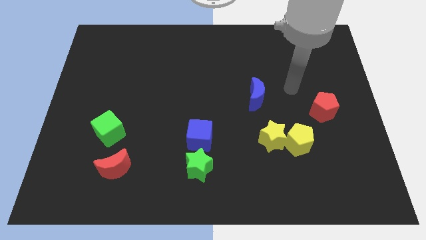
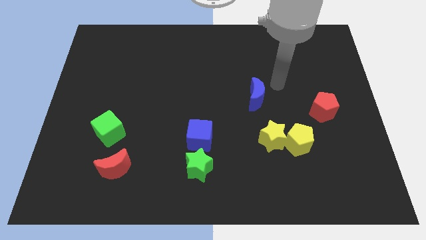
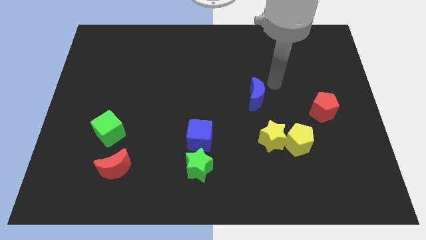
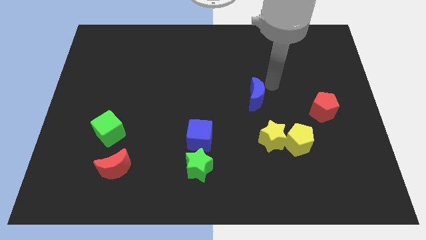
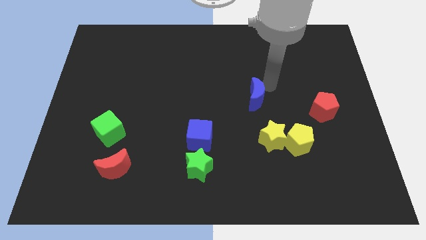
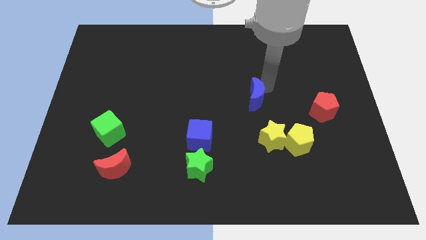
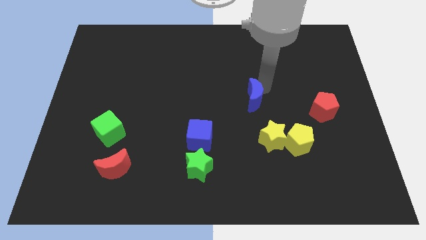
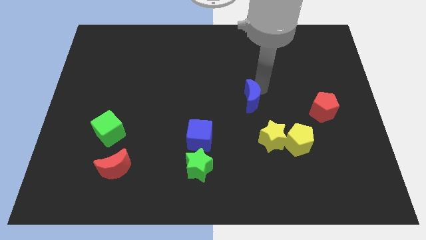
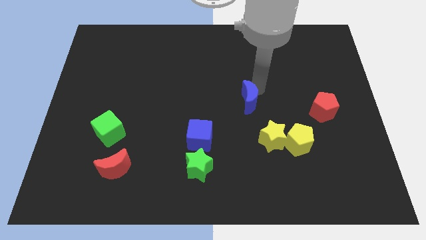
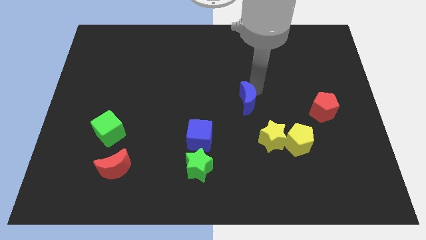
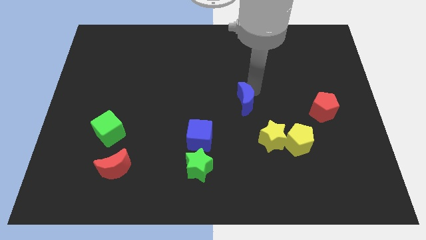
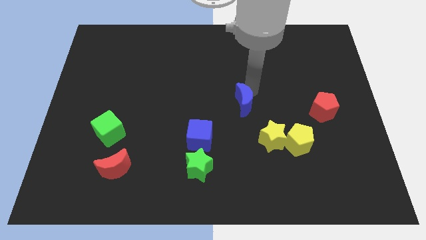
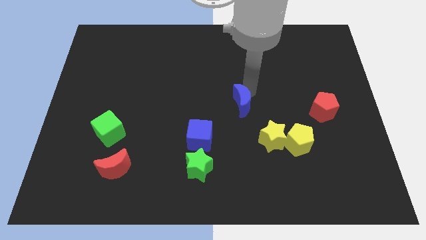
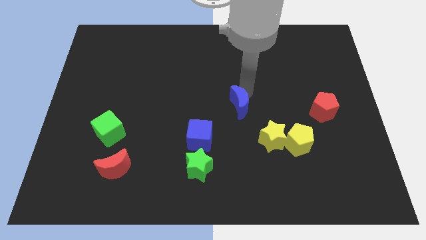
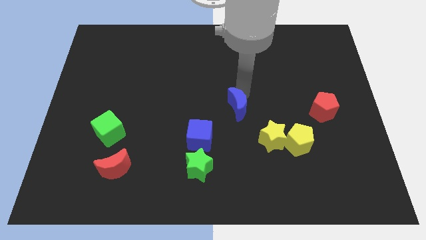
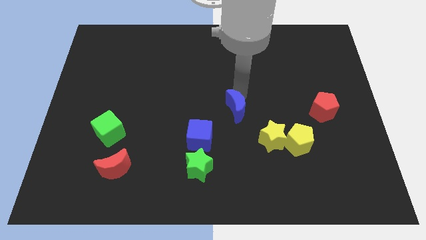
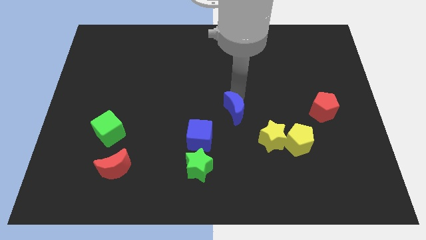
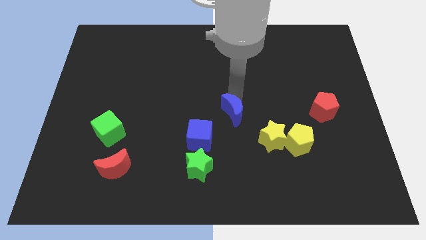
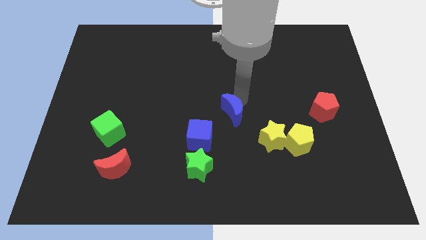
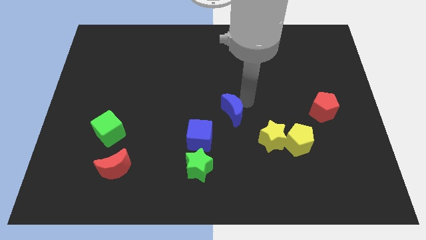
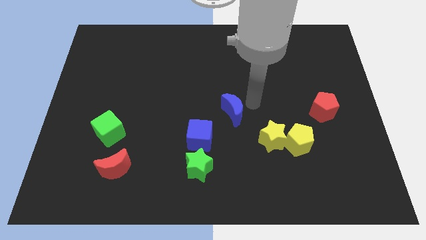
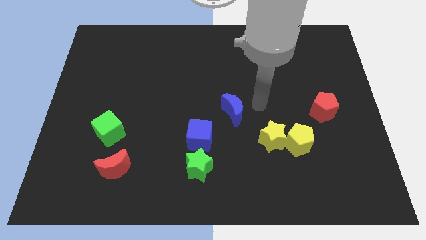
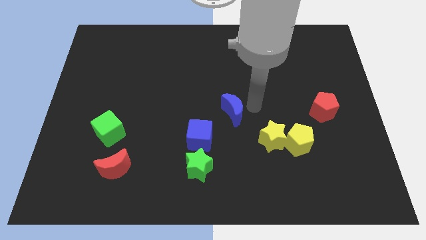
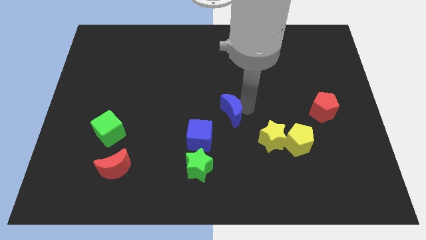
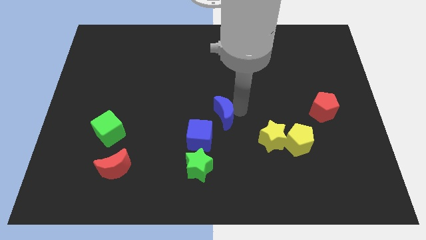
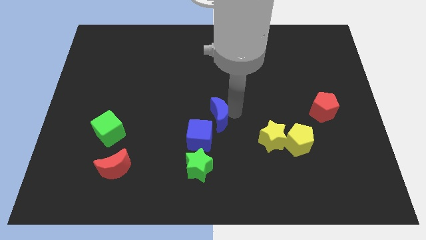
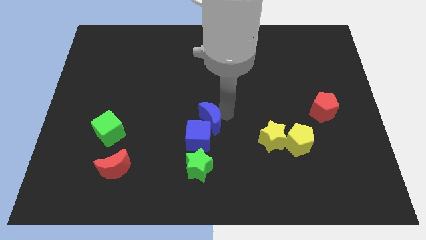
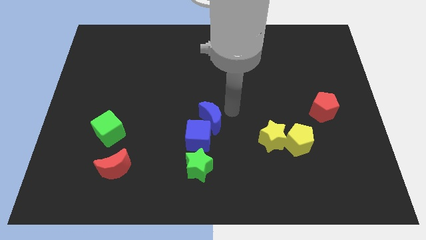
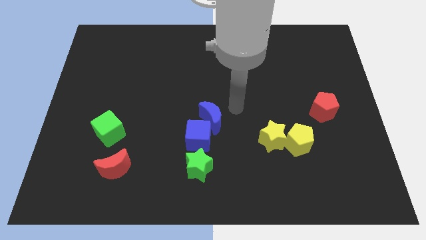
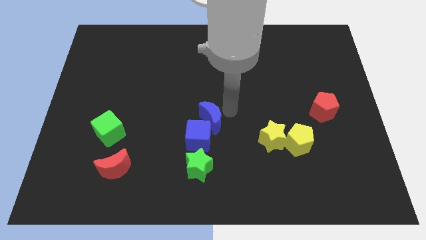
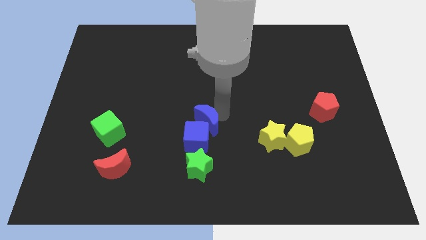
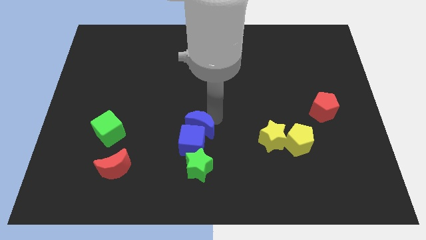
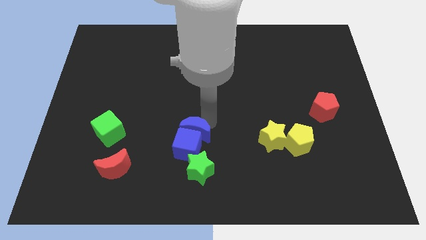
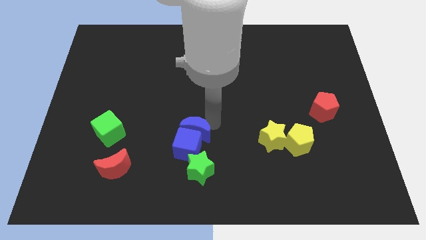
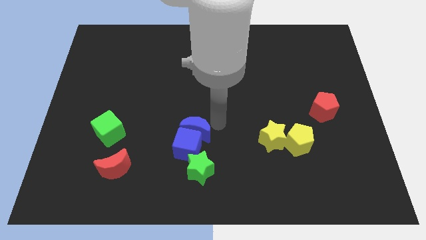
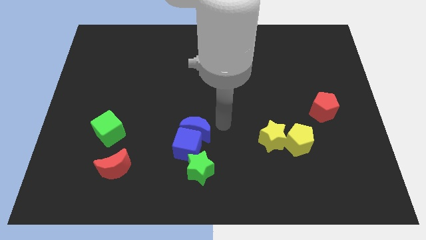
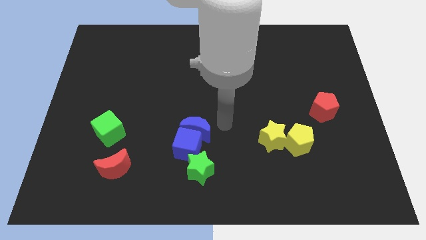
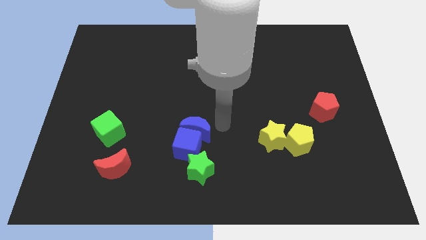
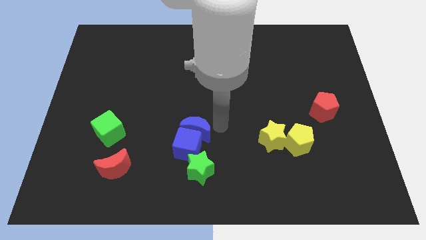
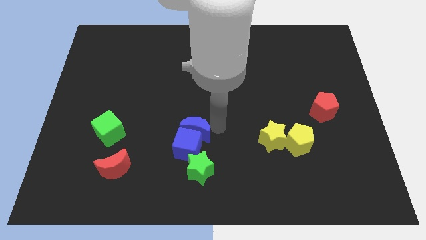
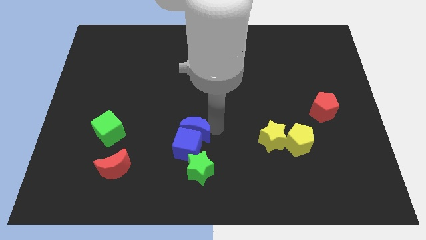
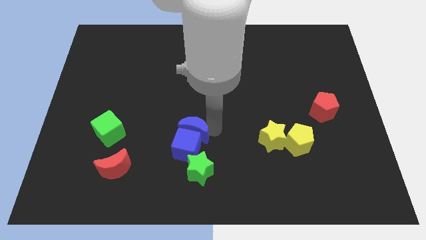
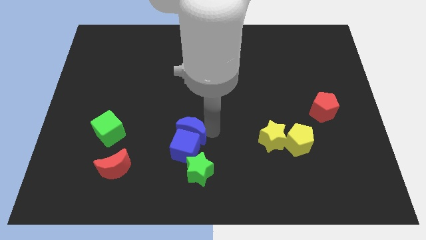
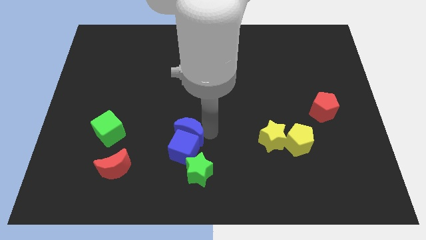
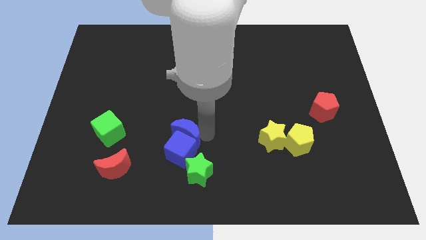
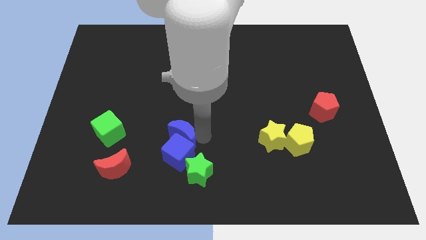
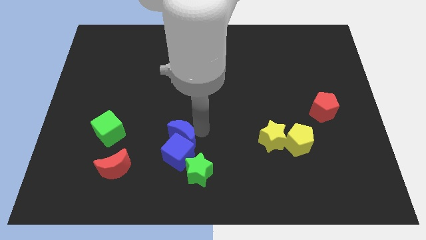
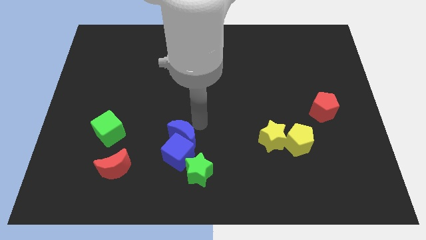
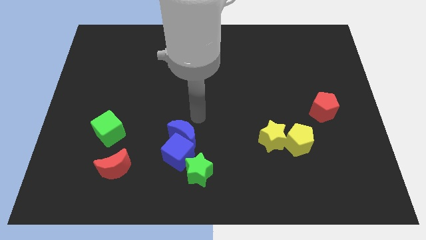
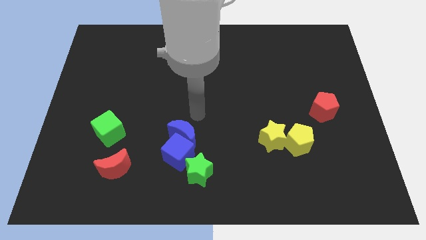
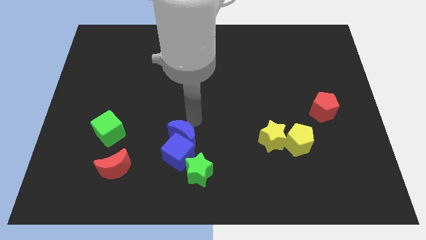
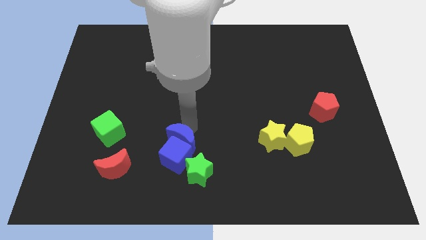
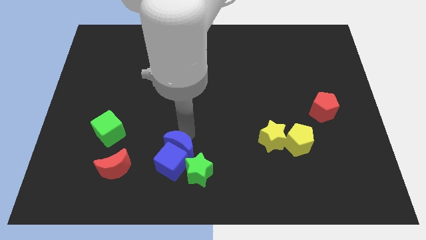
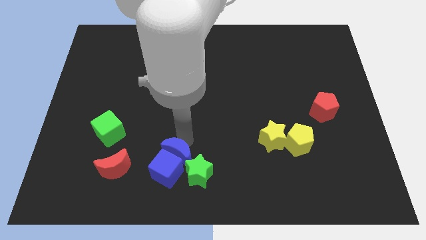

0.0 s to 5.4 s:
put the blue moon to the right side of the red moon
